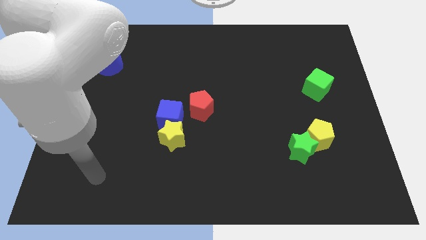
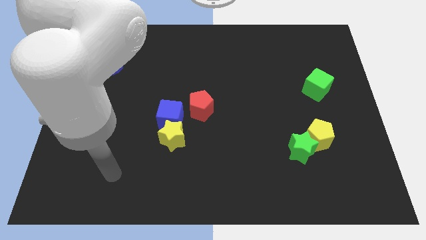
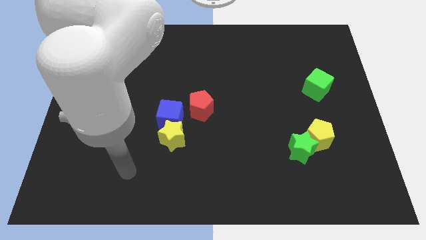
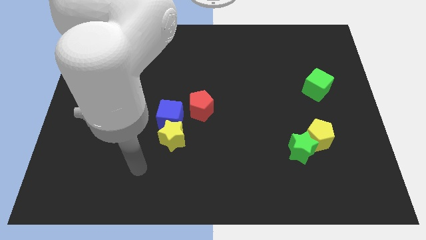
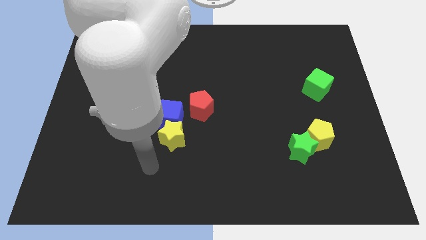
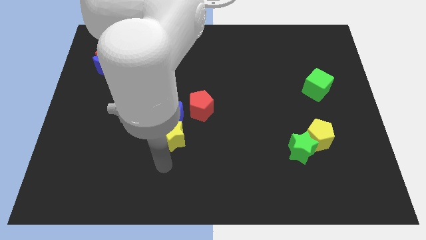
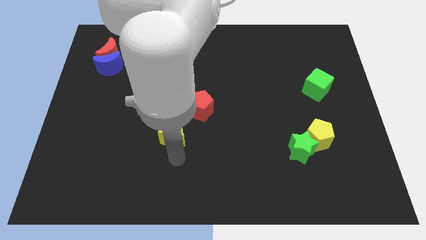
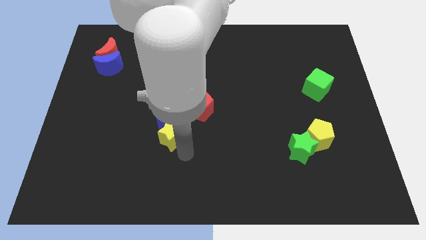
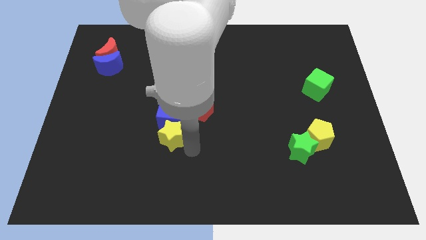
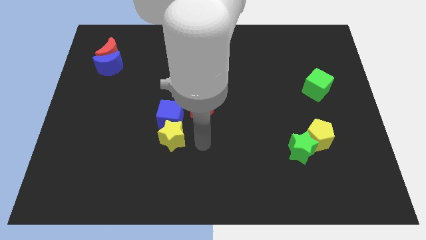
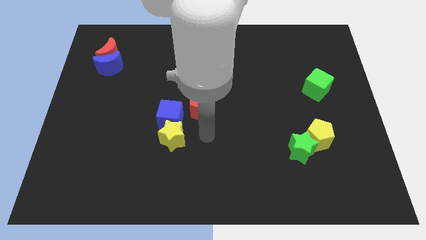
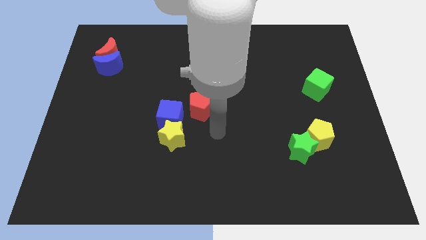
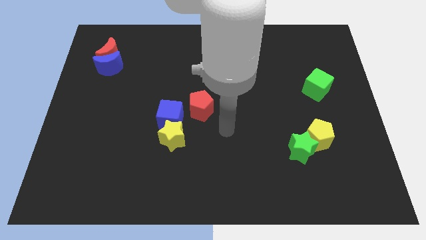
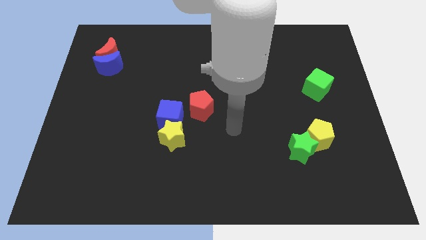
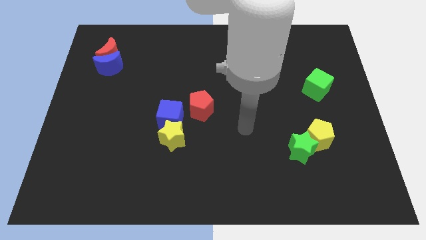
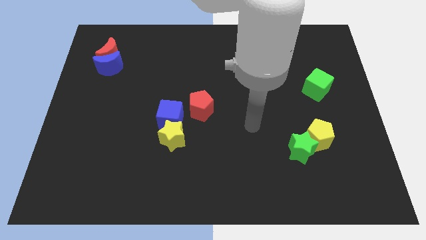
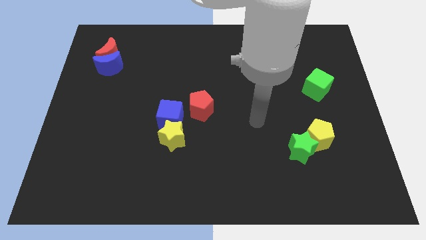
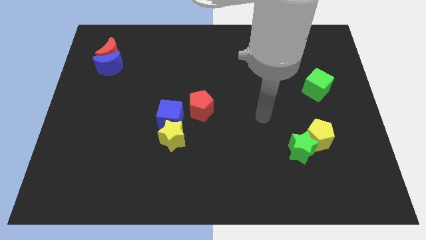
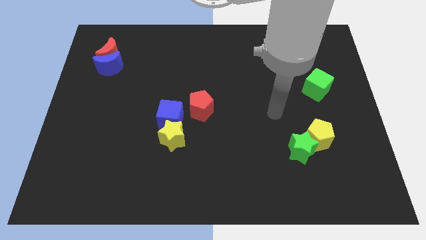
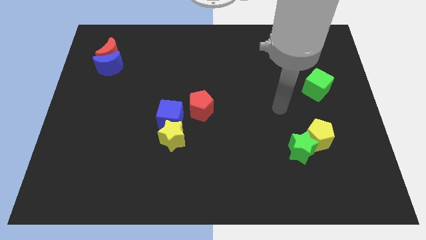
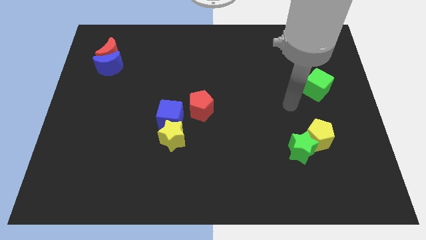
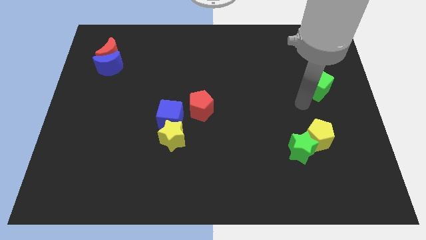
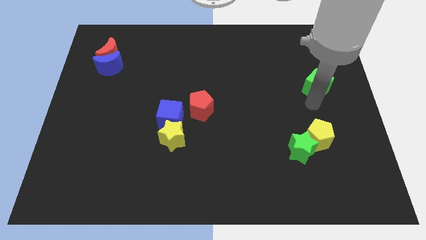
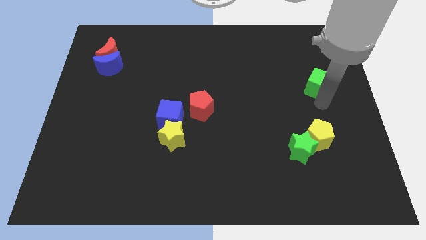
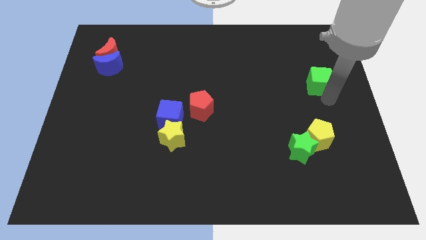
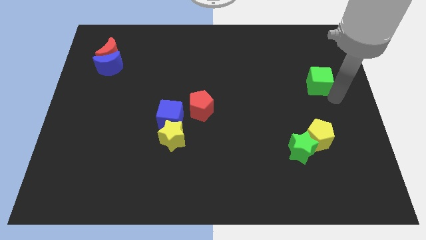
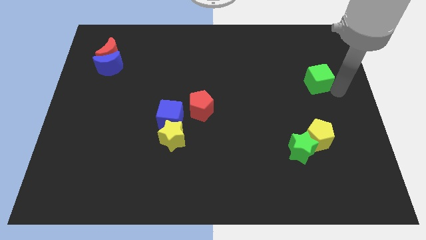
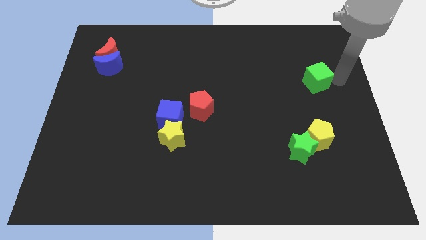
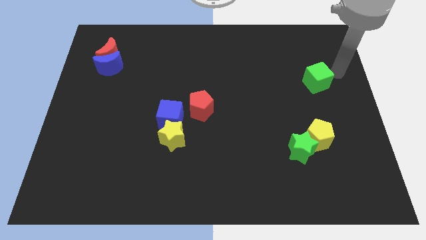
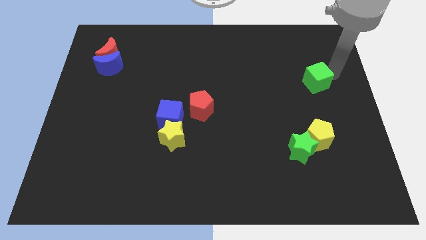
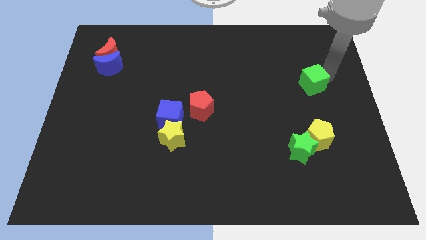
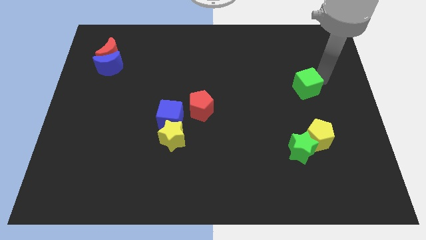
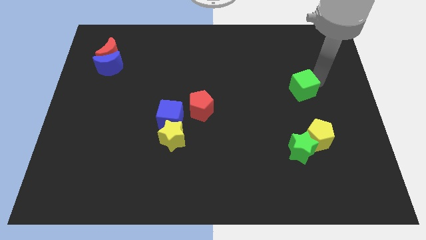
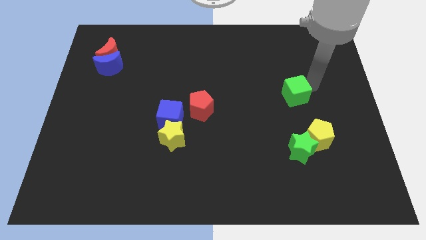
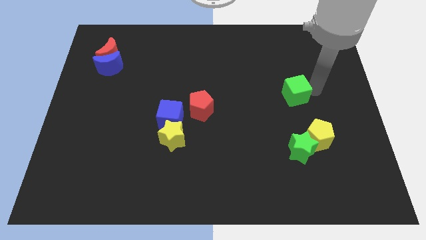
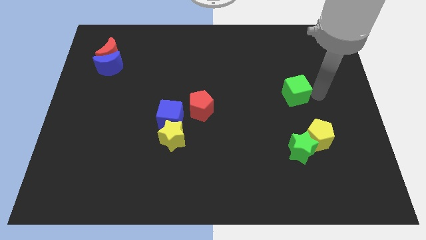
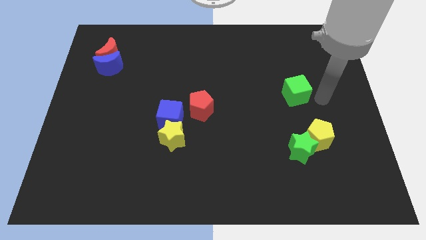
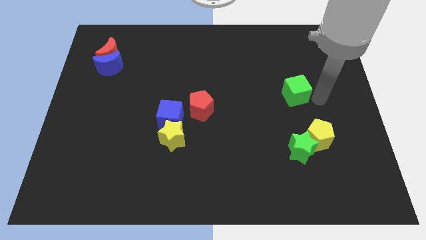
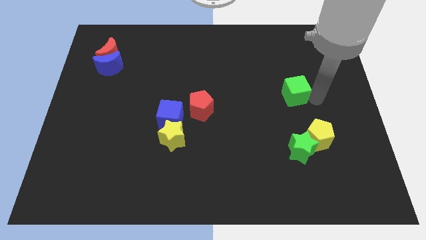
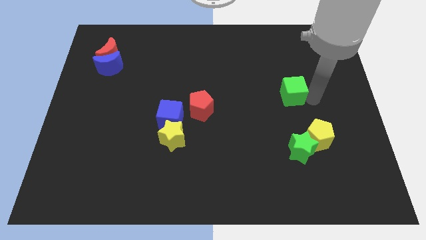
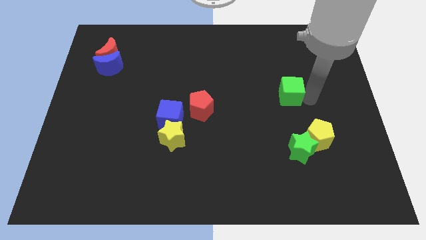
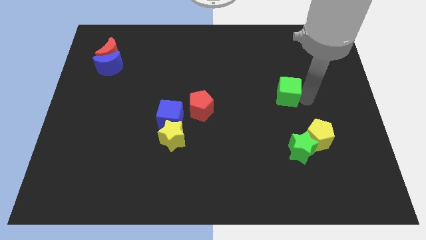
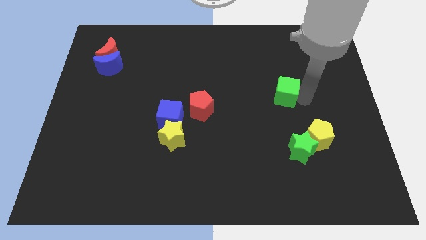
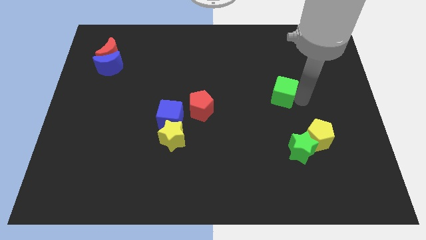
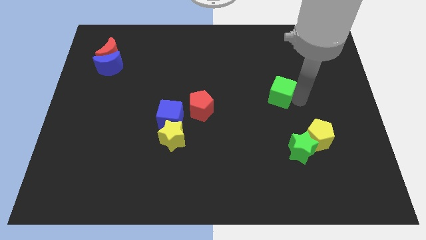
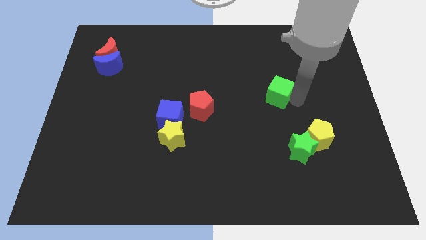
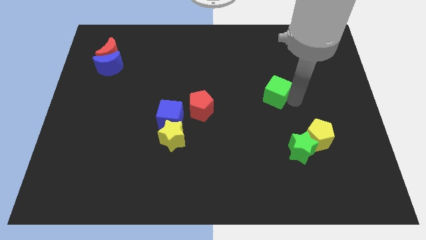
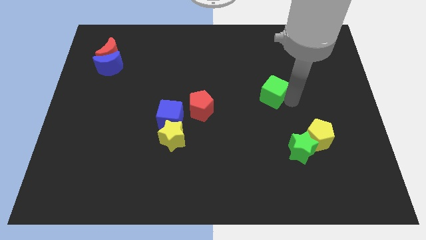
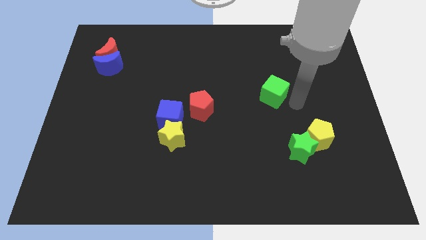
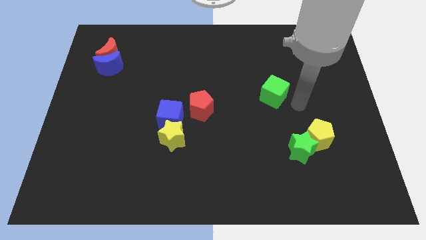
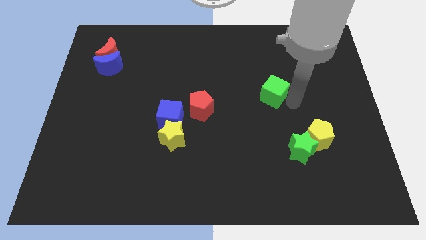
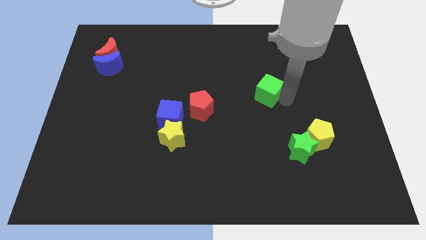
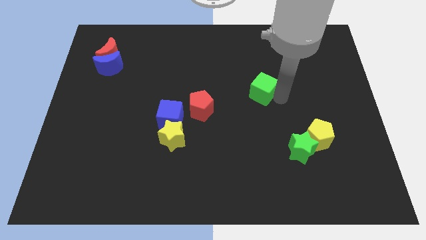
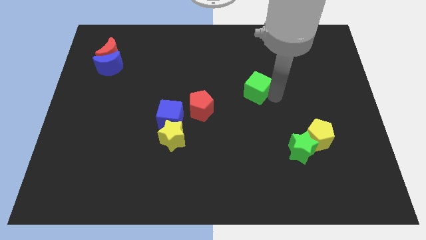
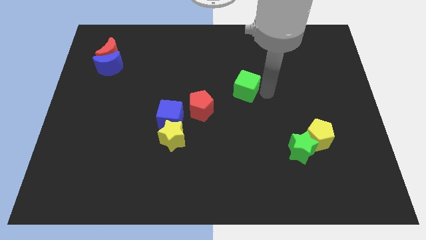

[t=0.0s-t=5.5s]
put the green cube to the top right of the red pentagon

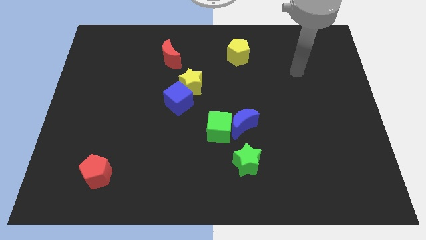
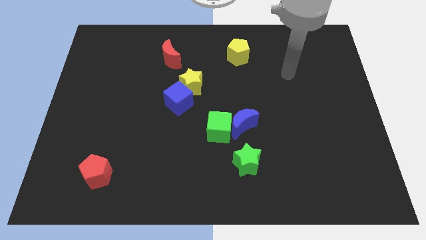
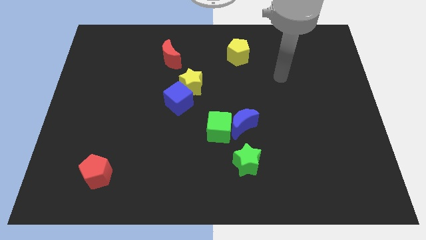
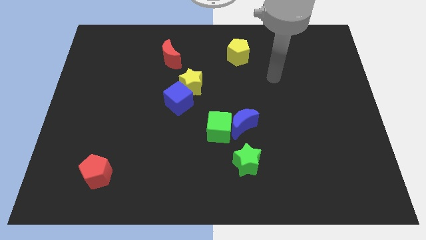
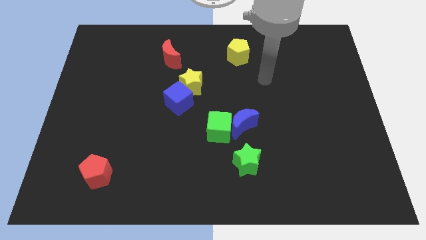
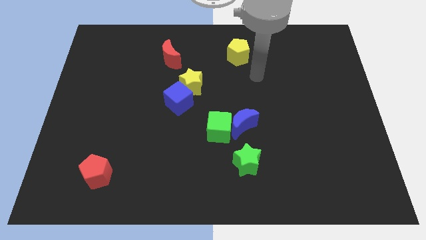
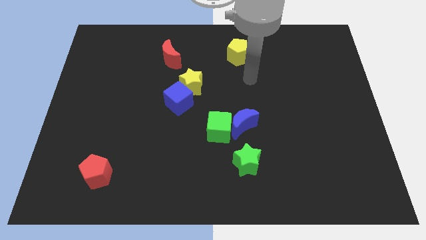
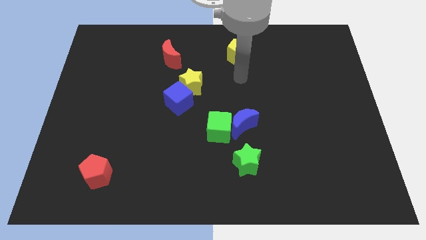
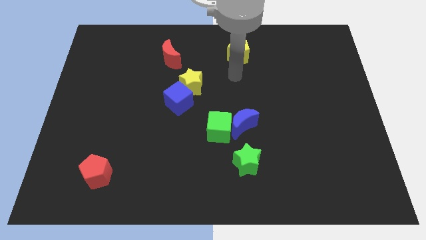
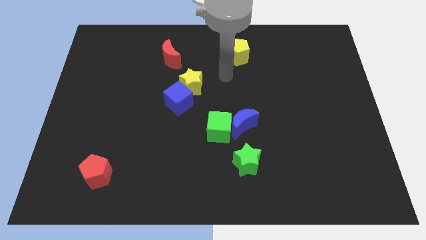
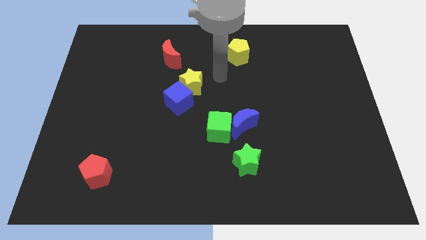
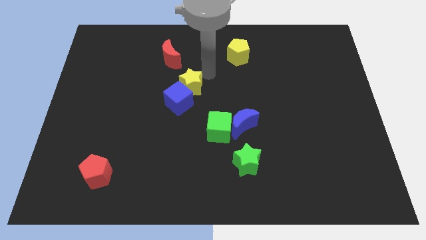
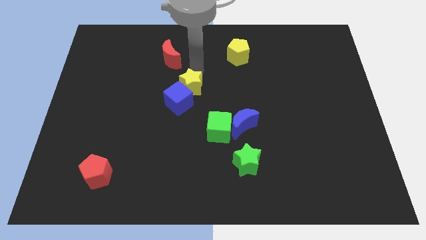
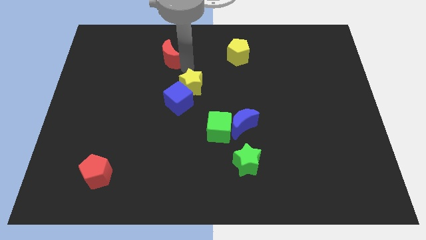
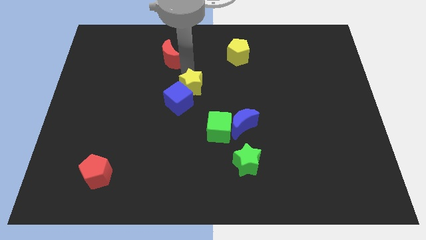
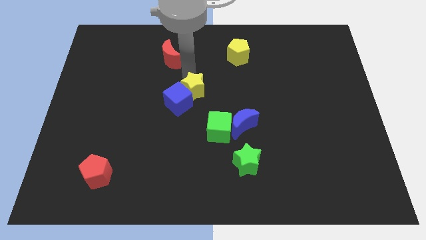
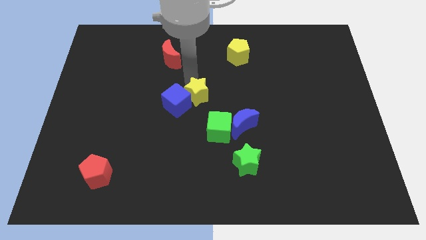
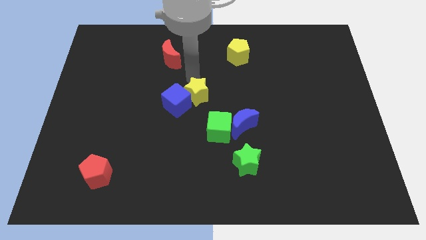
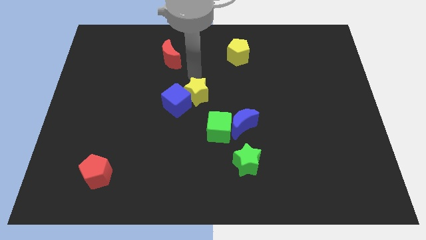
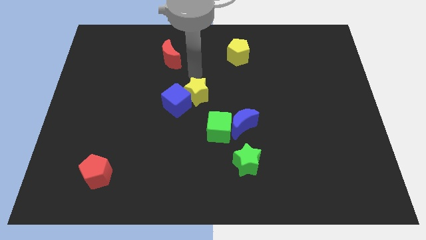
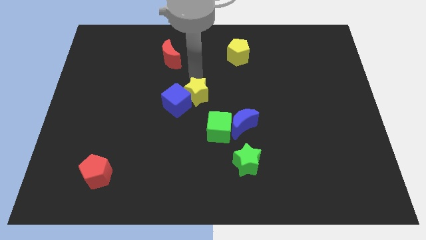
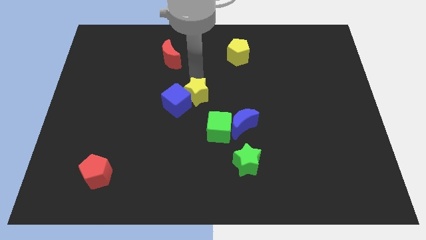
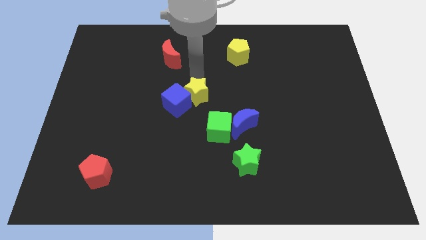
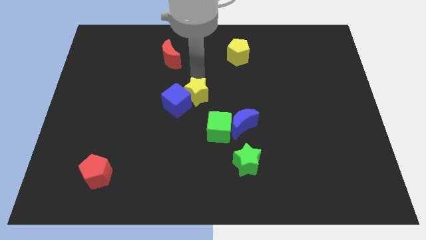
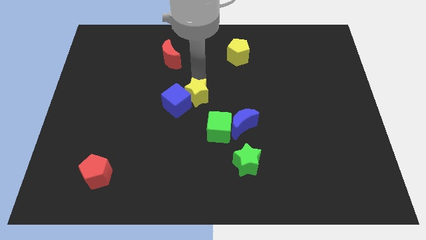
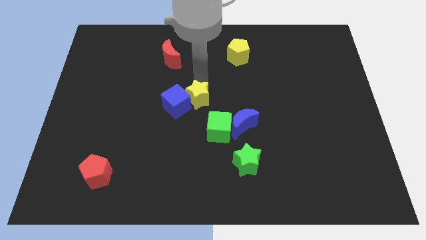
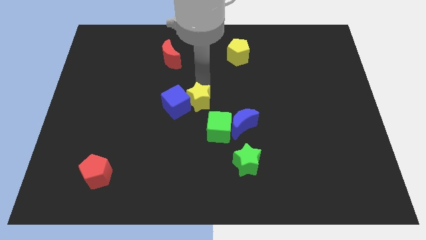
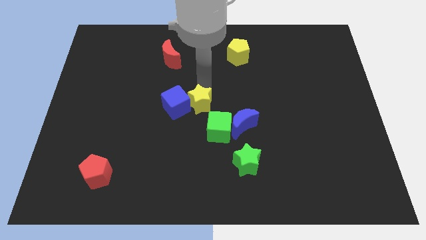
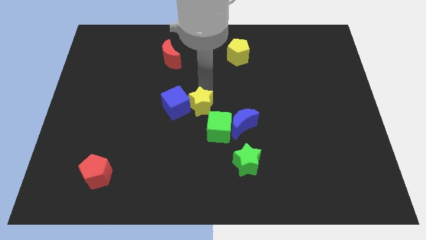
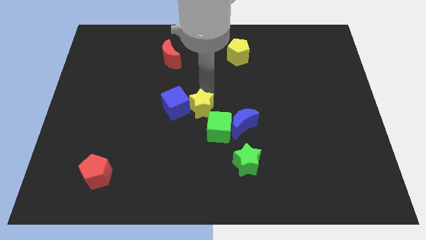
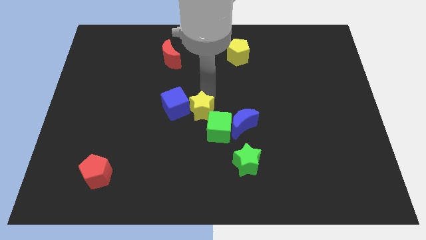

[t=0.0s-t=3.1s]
slide the yellow star to the left of the blue moon
